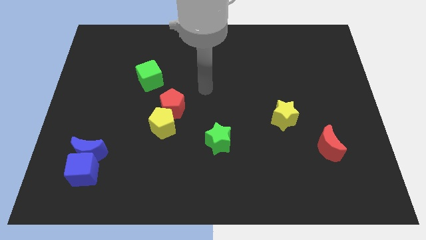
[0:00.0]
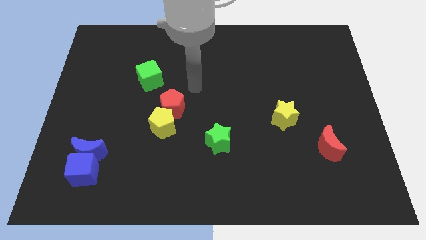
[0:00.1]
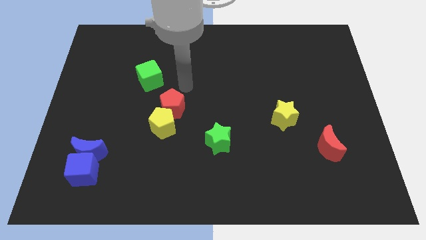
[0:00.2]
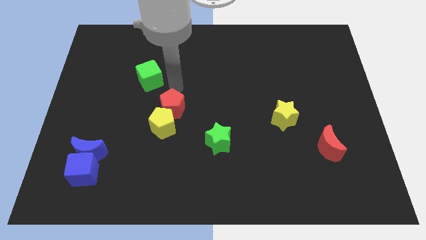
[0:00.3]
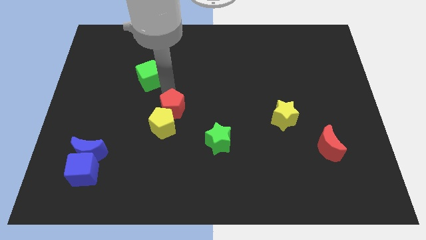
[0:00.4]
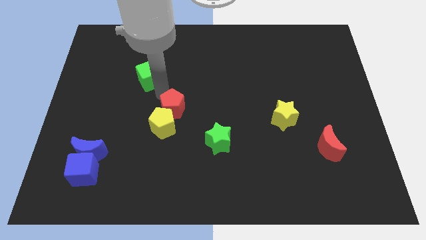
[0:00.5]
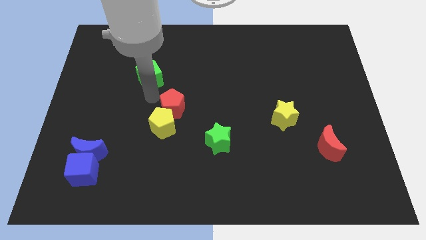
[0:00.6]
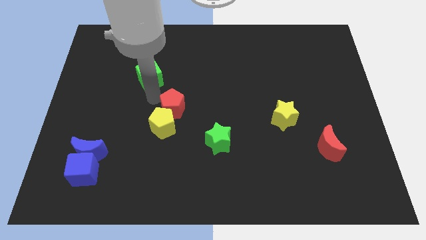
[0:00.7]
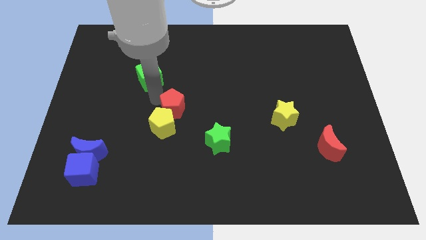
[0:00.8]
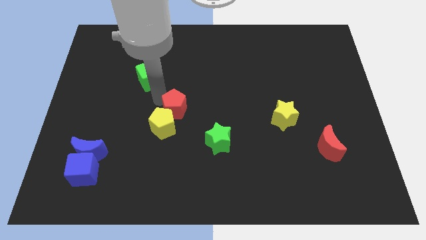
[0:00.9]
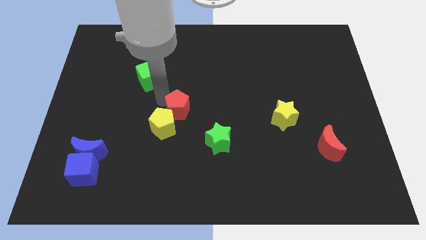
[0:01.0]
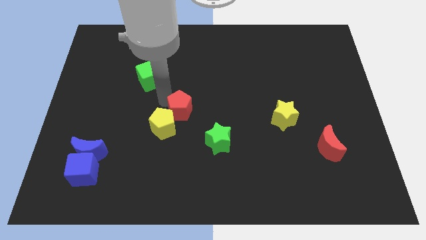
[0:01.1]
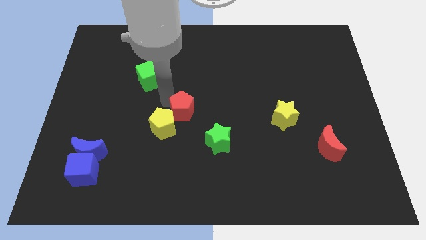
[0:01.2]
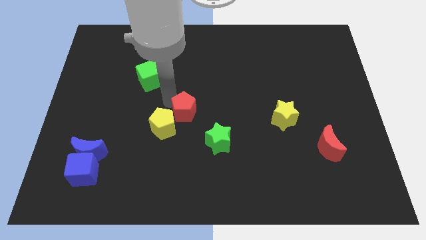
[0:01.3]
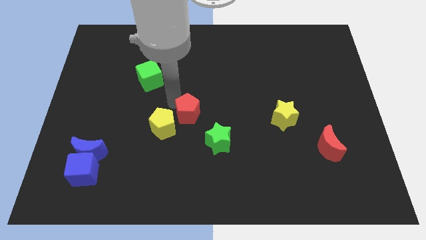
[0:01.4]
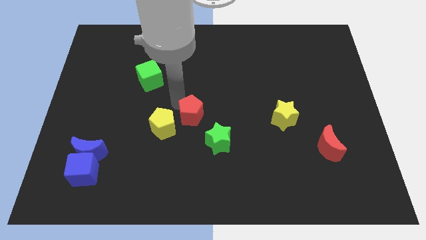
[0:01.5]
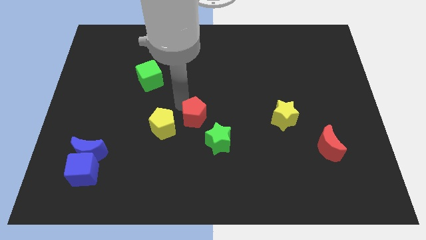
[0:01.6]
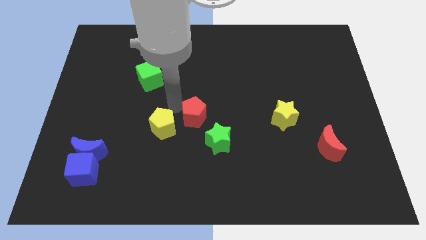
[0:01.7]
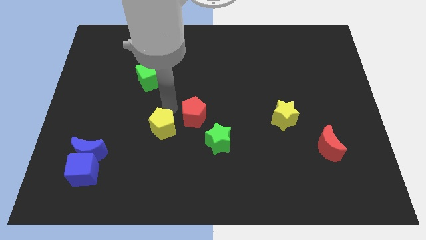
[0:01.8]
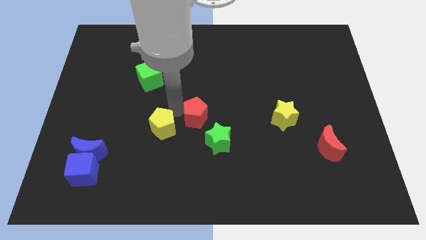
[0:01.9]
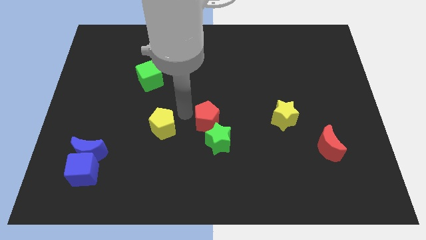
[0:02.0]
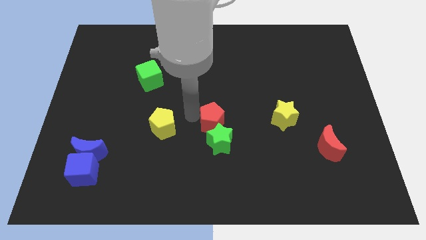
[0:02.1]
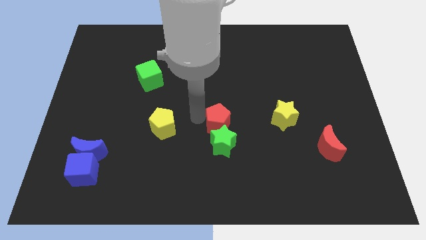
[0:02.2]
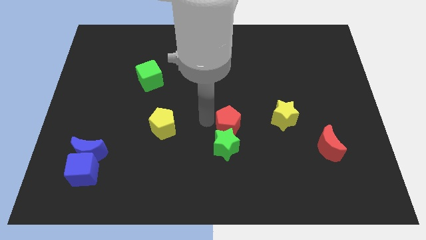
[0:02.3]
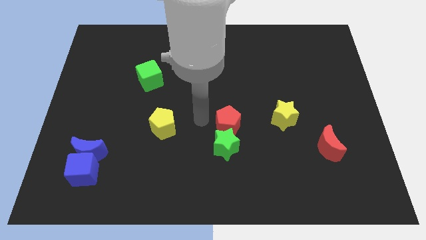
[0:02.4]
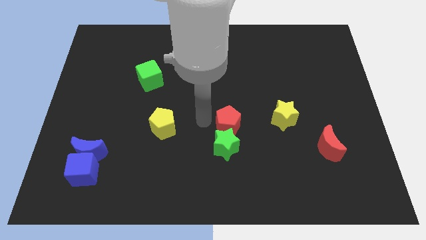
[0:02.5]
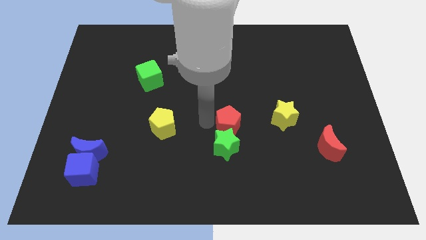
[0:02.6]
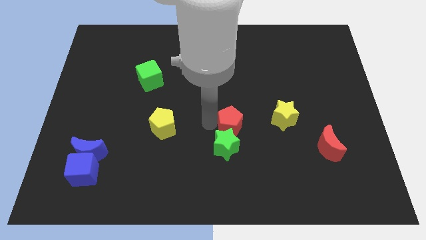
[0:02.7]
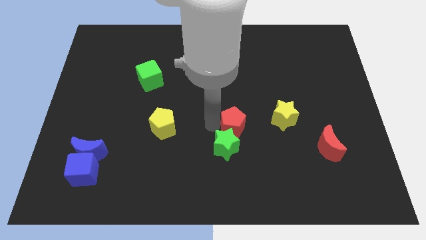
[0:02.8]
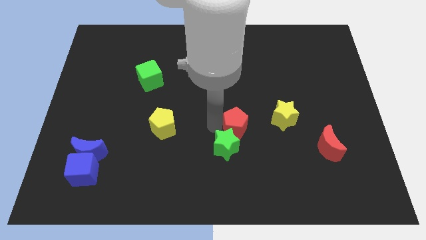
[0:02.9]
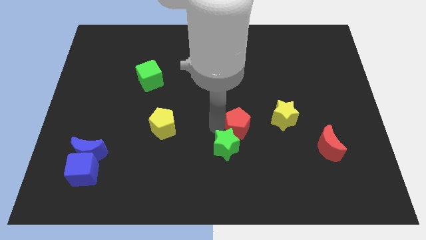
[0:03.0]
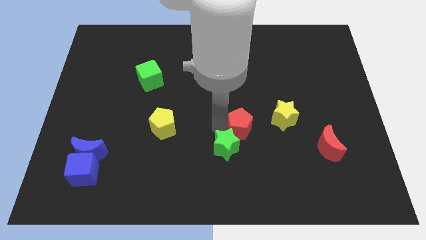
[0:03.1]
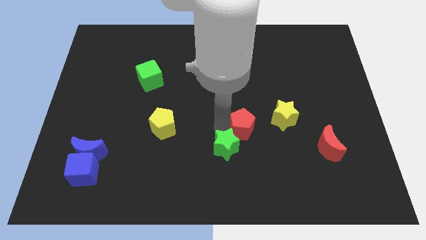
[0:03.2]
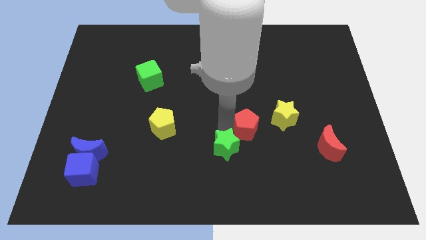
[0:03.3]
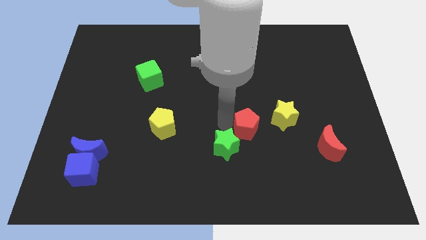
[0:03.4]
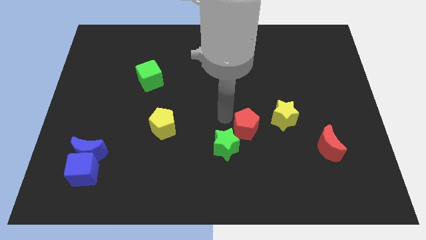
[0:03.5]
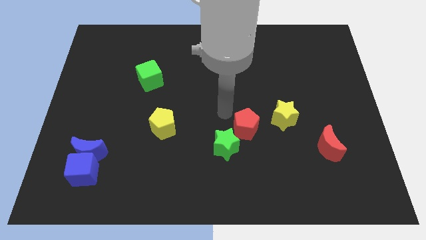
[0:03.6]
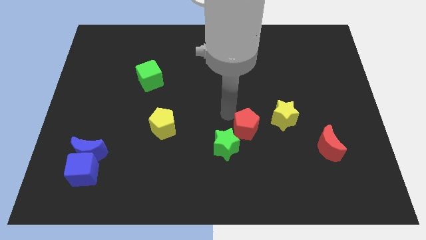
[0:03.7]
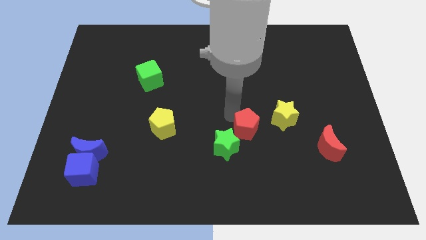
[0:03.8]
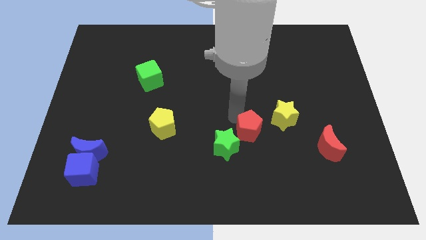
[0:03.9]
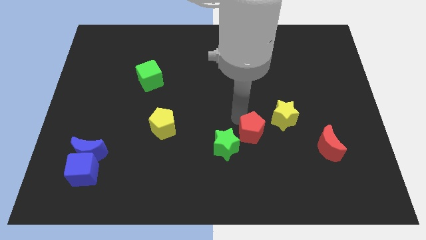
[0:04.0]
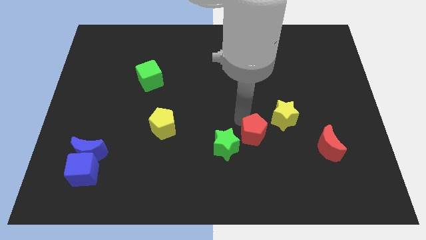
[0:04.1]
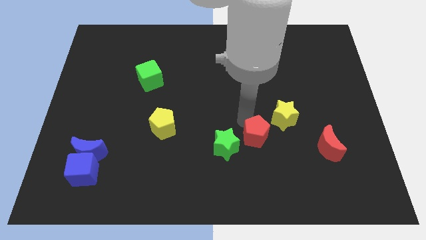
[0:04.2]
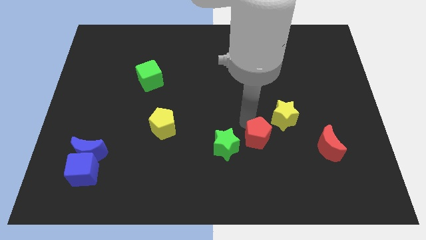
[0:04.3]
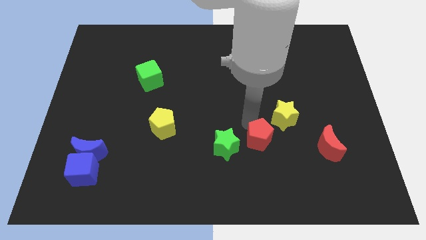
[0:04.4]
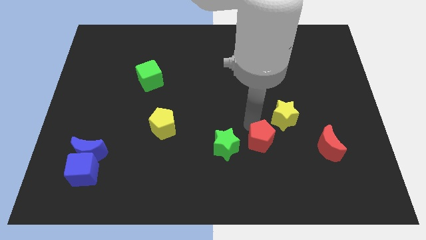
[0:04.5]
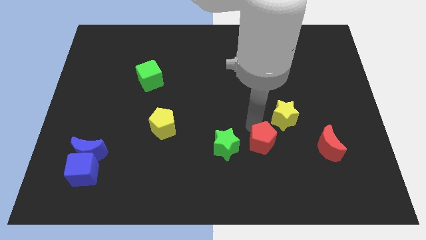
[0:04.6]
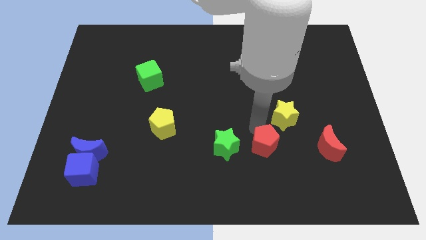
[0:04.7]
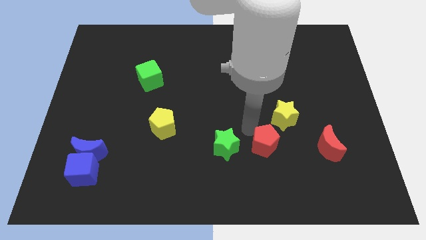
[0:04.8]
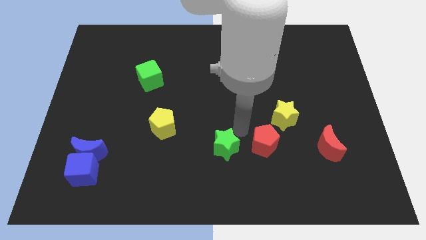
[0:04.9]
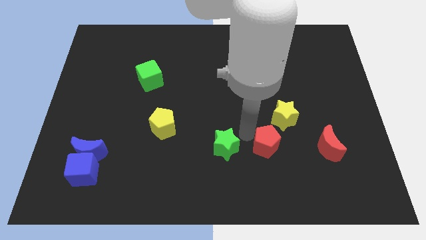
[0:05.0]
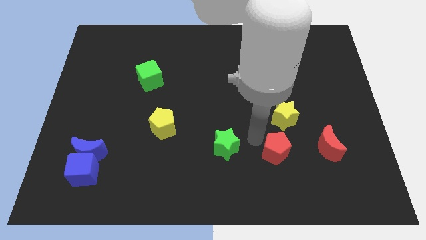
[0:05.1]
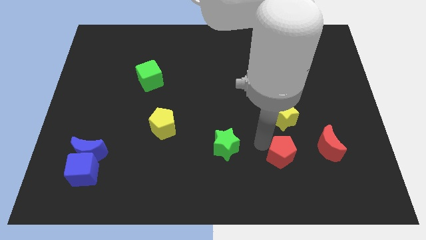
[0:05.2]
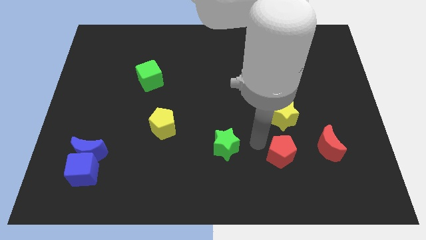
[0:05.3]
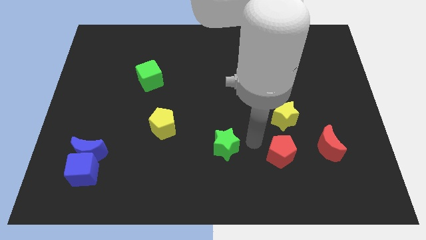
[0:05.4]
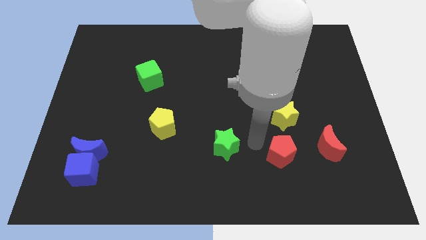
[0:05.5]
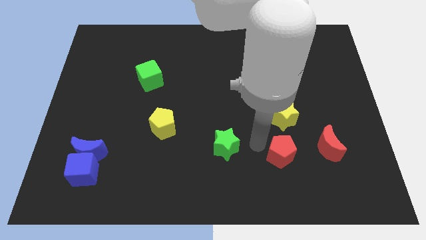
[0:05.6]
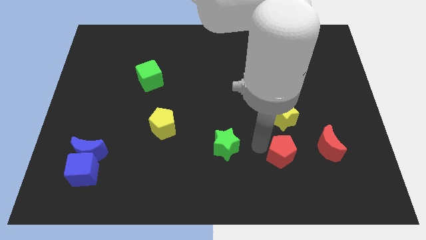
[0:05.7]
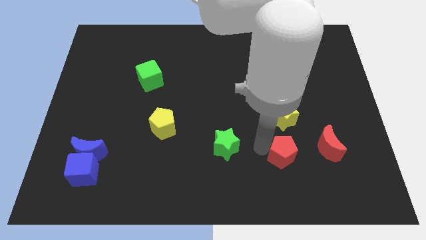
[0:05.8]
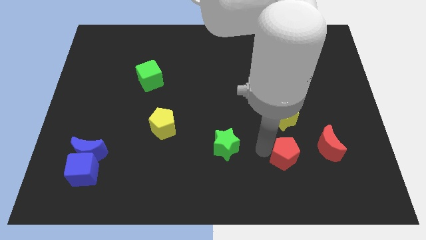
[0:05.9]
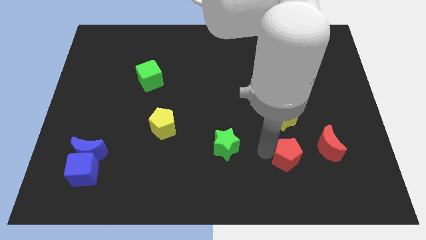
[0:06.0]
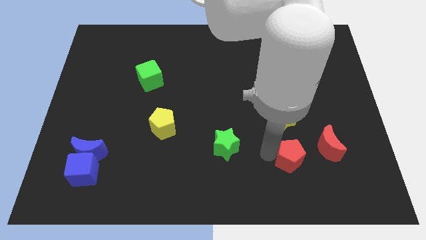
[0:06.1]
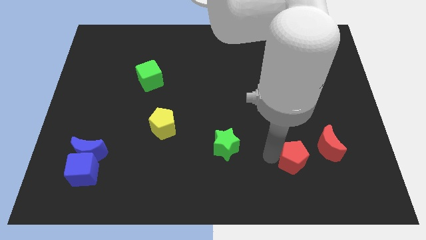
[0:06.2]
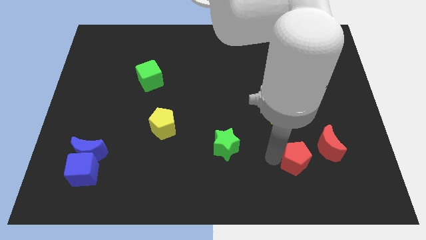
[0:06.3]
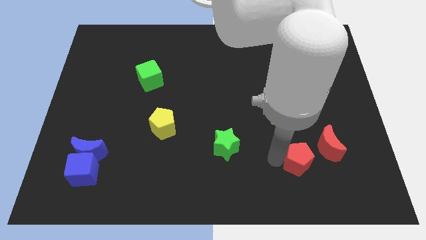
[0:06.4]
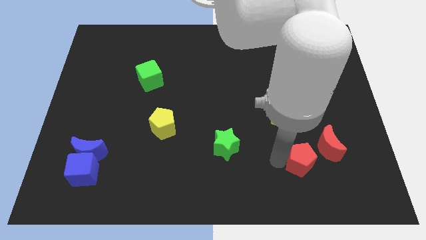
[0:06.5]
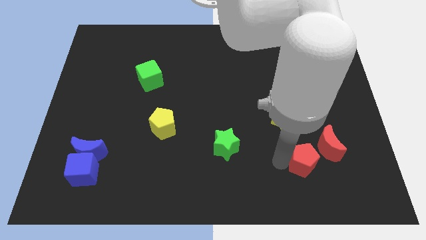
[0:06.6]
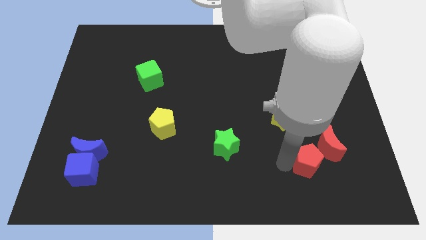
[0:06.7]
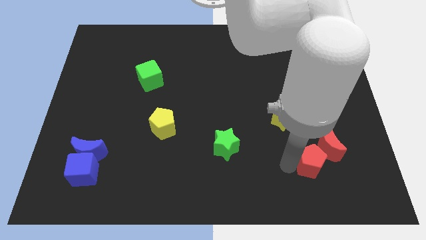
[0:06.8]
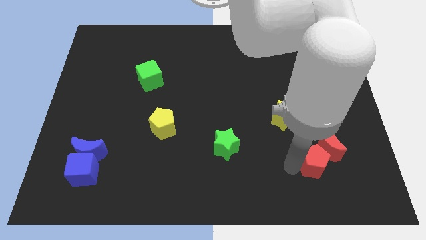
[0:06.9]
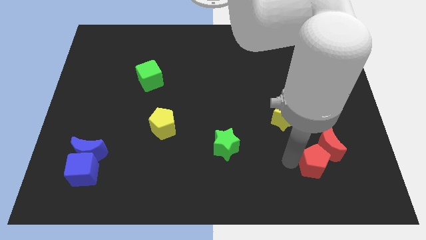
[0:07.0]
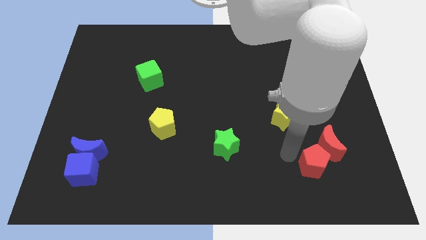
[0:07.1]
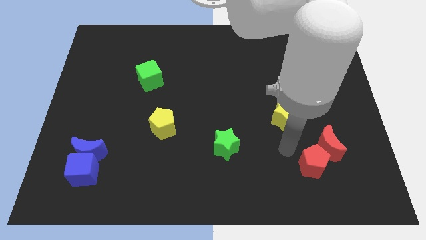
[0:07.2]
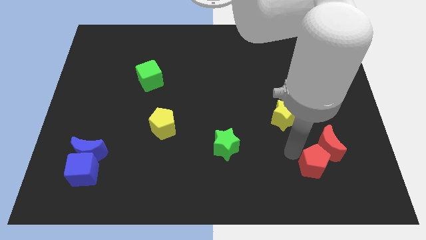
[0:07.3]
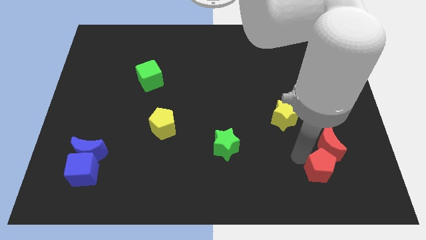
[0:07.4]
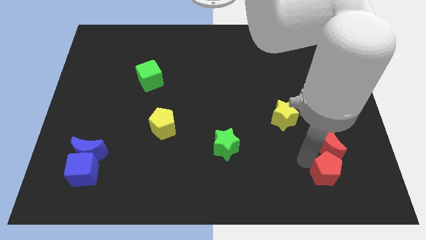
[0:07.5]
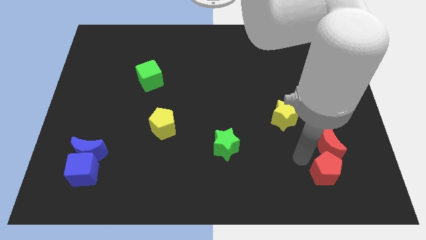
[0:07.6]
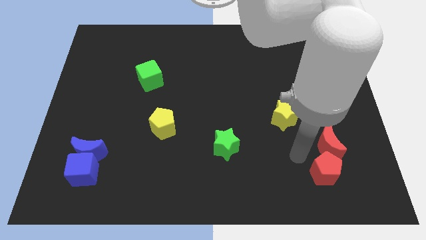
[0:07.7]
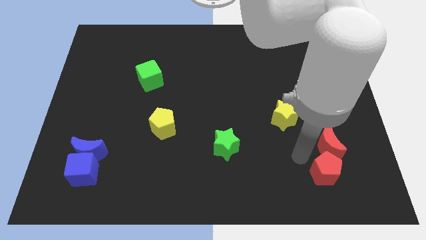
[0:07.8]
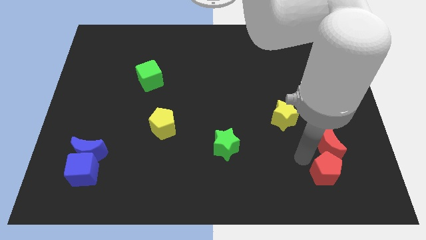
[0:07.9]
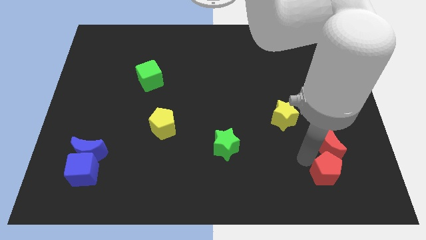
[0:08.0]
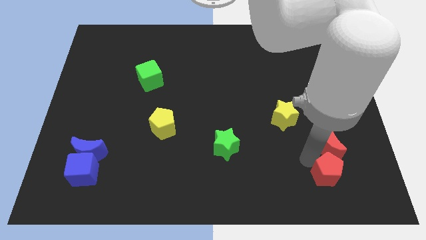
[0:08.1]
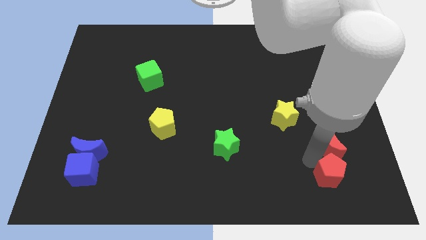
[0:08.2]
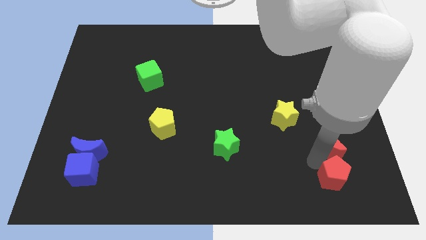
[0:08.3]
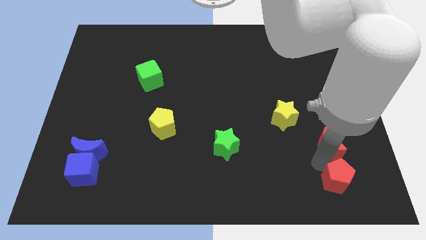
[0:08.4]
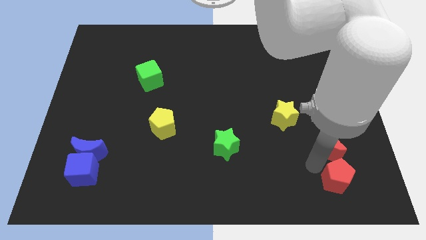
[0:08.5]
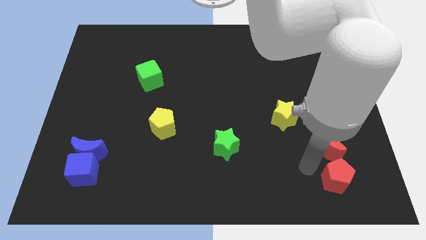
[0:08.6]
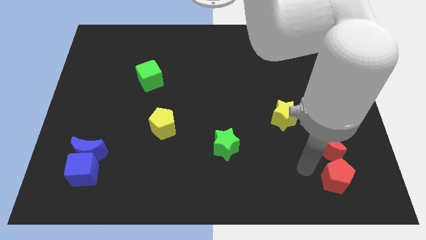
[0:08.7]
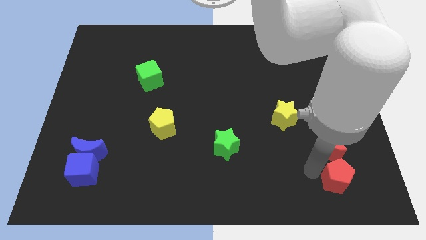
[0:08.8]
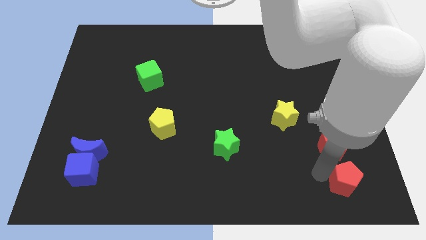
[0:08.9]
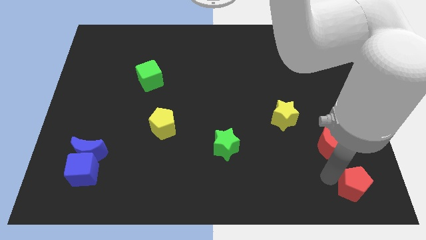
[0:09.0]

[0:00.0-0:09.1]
put the red pentagon to the bottom right
